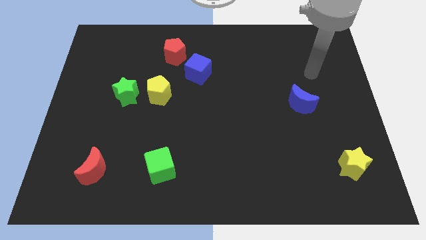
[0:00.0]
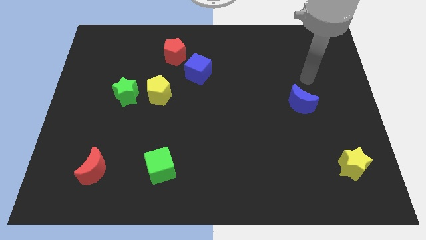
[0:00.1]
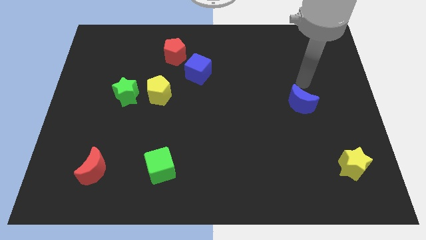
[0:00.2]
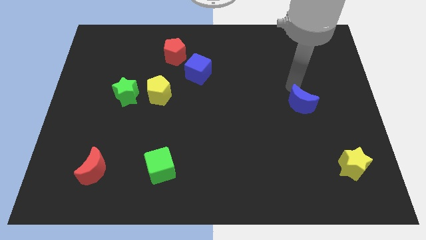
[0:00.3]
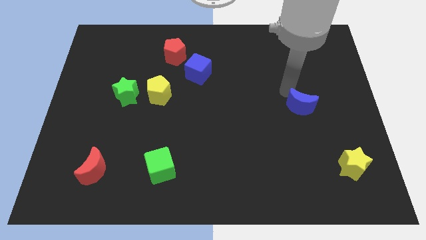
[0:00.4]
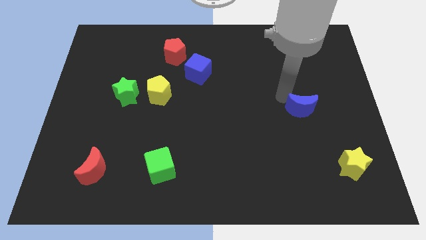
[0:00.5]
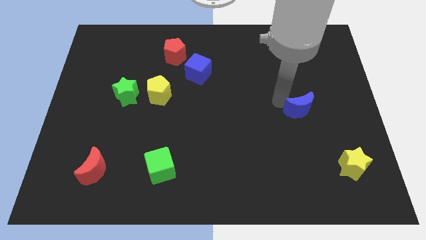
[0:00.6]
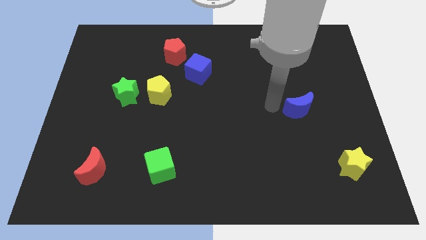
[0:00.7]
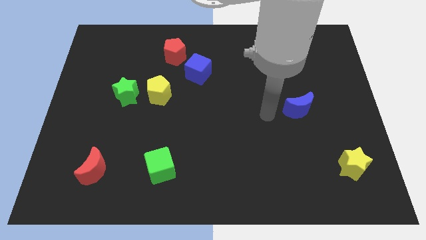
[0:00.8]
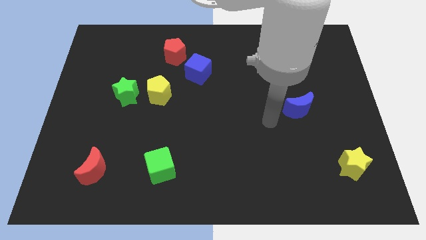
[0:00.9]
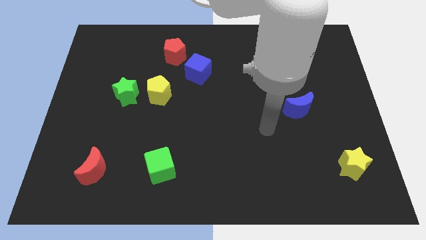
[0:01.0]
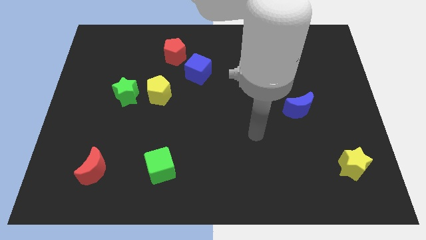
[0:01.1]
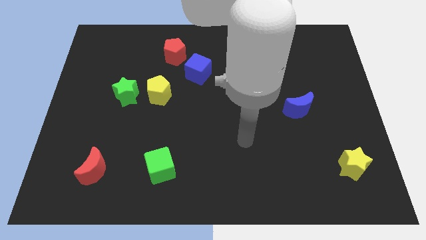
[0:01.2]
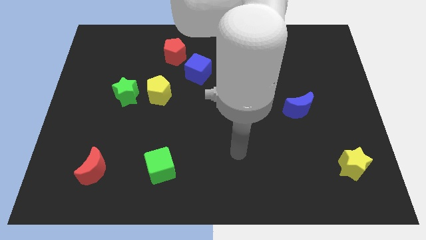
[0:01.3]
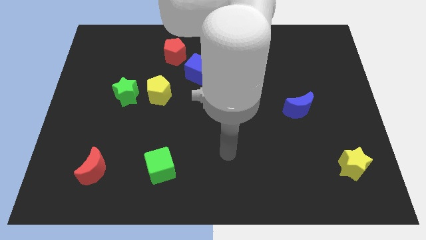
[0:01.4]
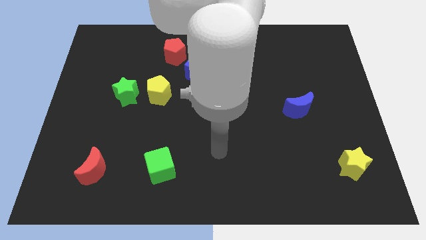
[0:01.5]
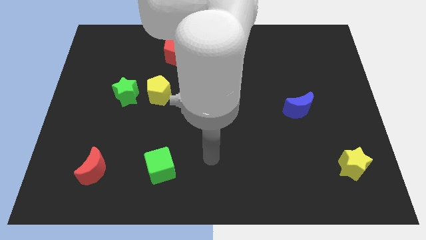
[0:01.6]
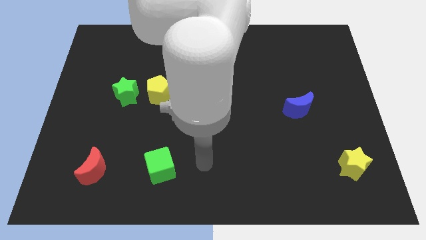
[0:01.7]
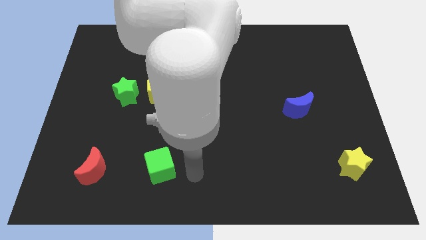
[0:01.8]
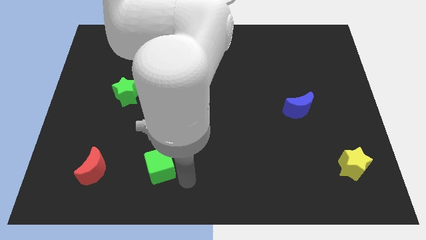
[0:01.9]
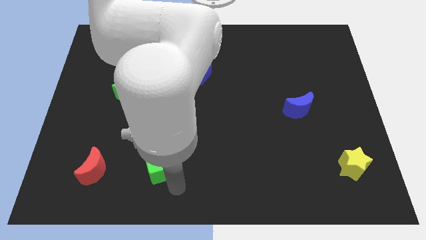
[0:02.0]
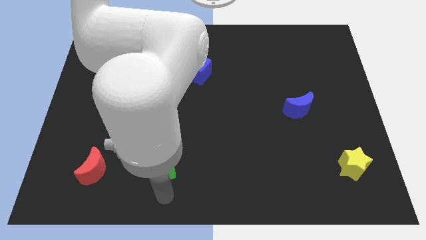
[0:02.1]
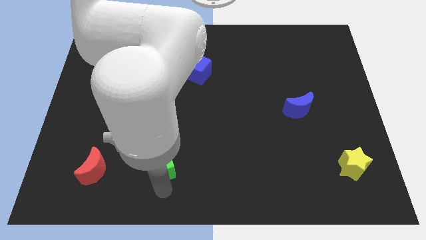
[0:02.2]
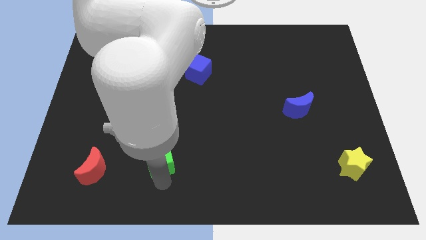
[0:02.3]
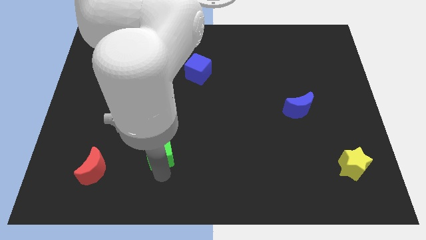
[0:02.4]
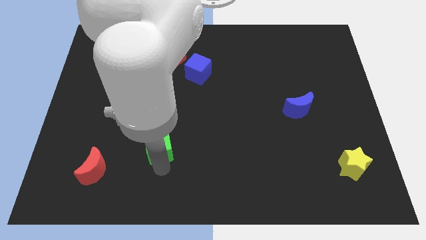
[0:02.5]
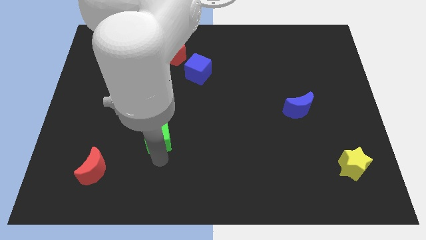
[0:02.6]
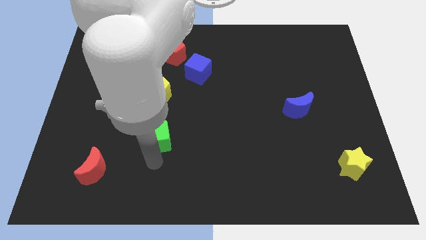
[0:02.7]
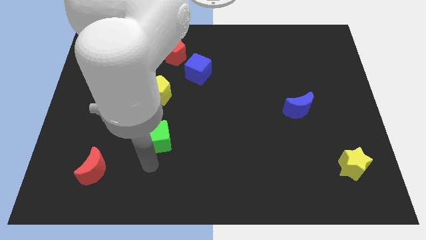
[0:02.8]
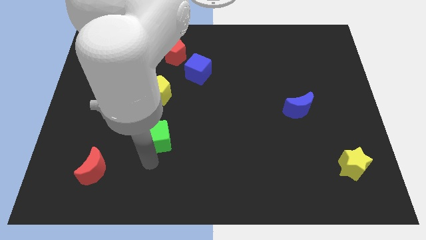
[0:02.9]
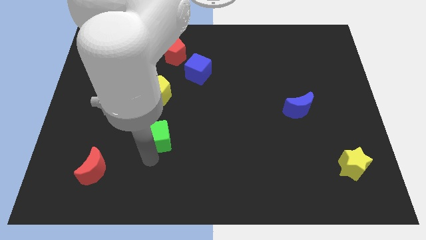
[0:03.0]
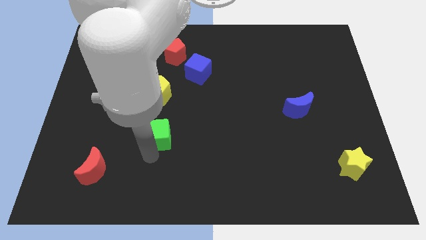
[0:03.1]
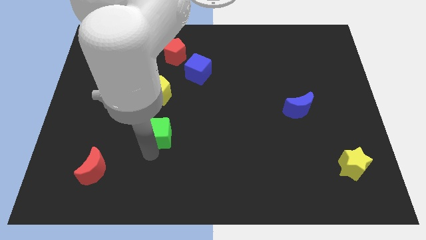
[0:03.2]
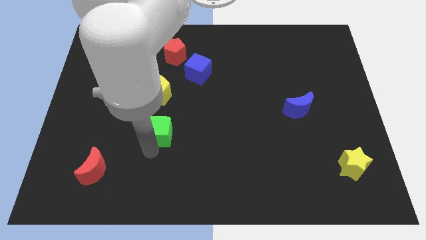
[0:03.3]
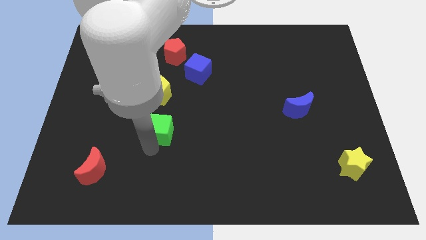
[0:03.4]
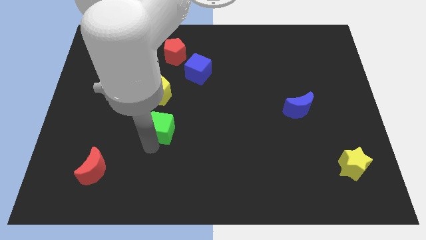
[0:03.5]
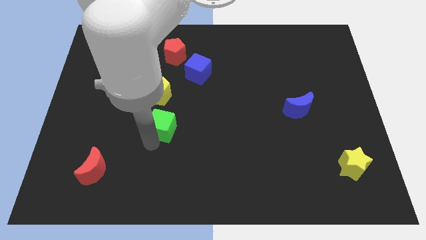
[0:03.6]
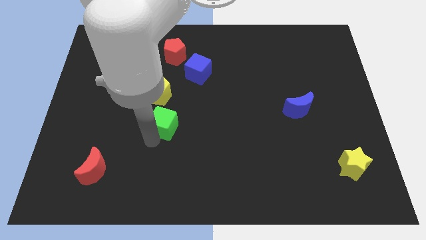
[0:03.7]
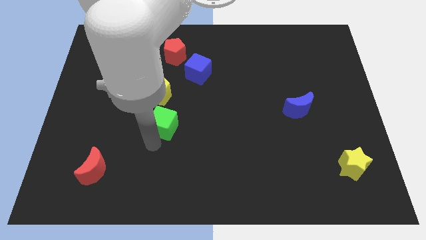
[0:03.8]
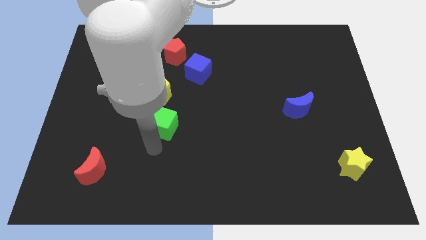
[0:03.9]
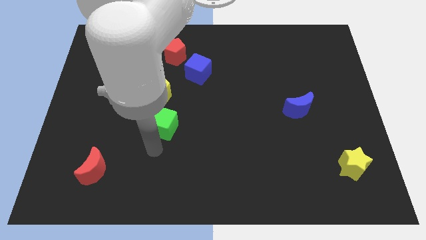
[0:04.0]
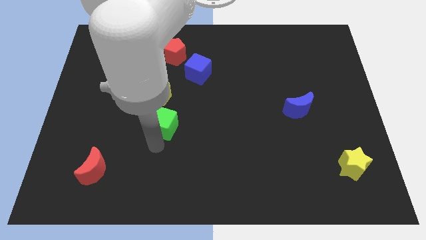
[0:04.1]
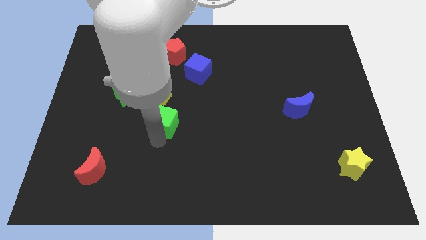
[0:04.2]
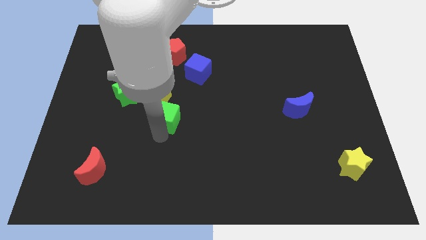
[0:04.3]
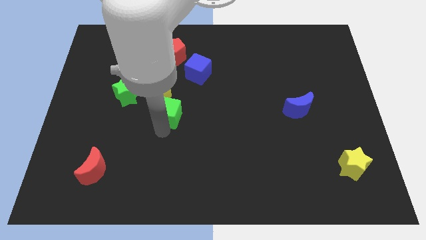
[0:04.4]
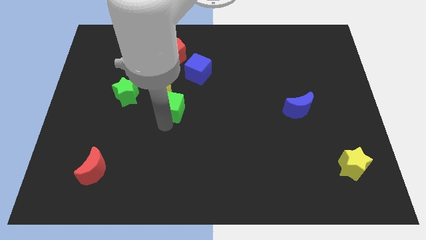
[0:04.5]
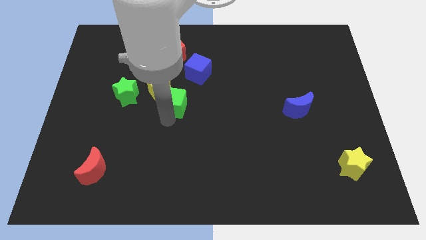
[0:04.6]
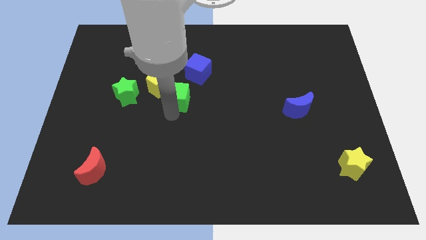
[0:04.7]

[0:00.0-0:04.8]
move the green cube below the red pentagon

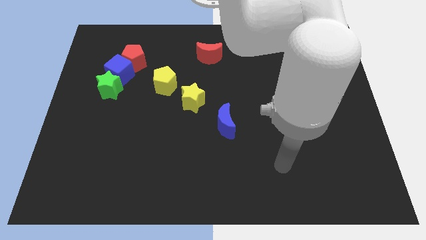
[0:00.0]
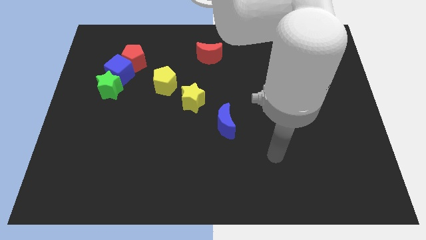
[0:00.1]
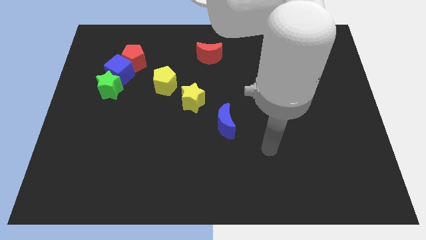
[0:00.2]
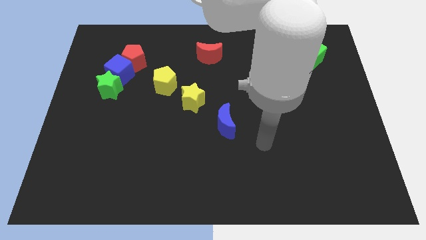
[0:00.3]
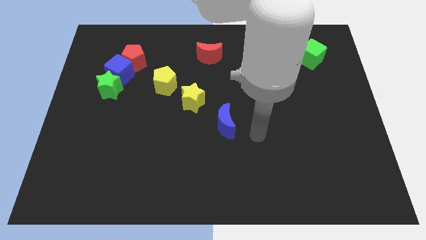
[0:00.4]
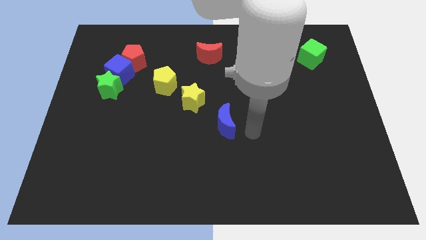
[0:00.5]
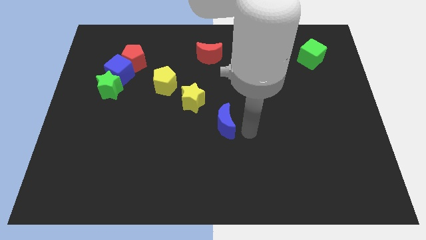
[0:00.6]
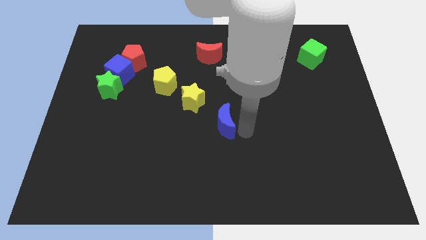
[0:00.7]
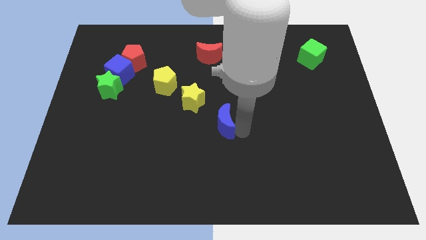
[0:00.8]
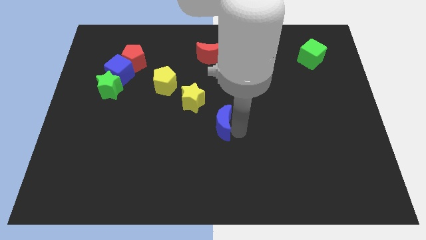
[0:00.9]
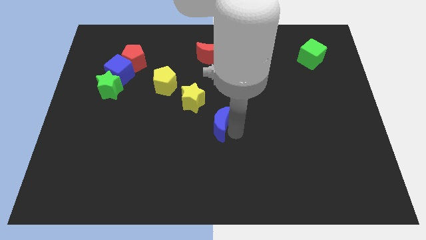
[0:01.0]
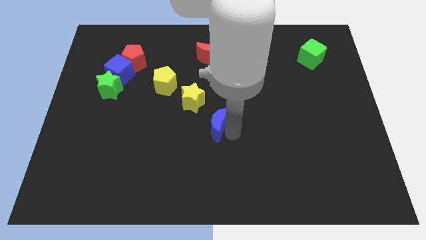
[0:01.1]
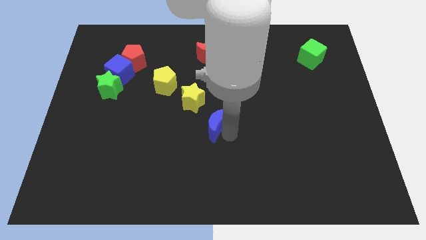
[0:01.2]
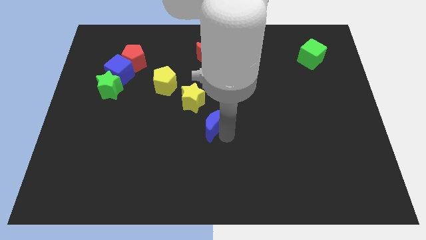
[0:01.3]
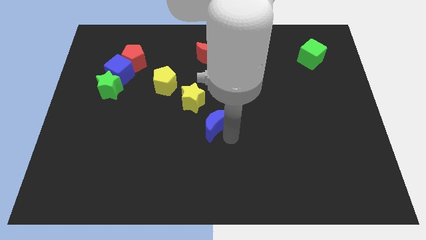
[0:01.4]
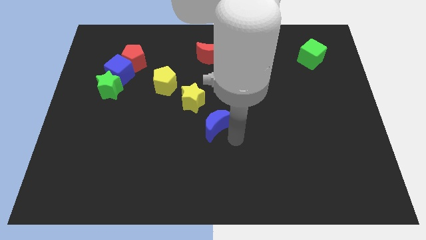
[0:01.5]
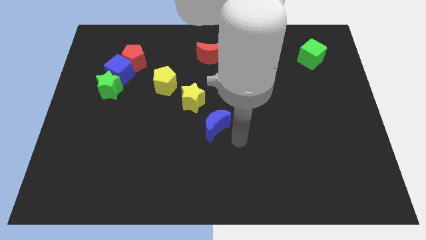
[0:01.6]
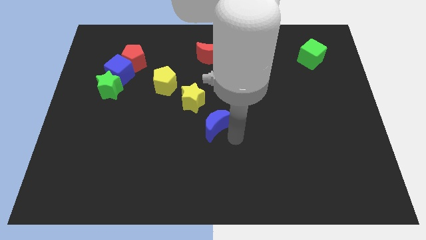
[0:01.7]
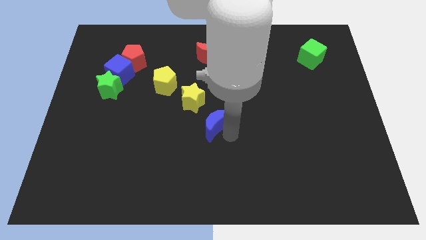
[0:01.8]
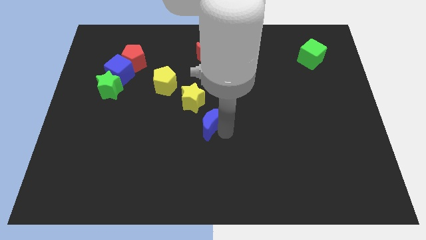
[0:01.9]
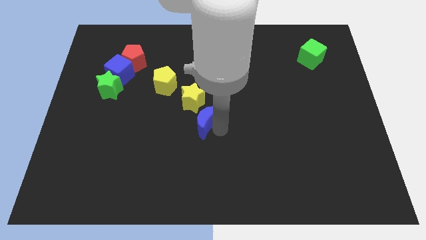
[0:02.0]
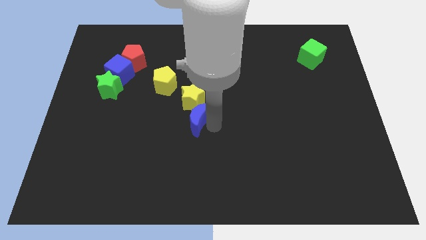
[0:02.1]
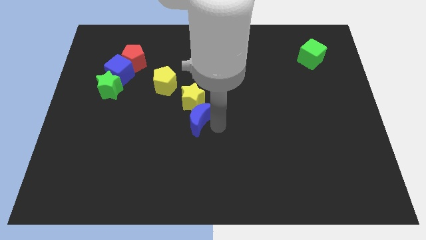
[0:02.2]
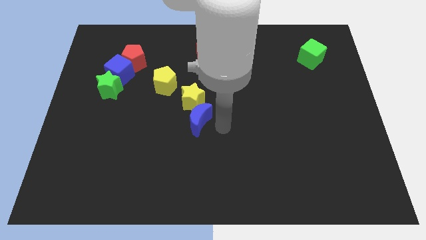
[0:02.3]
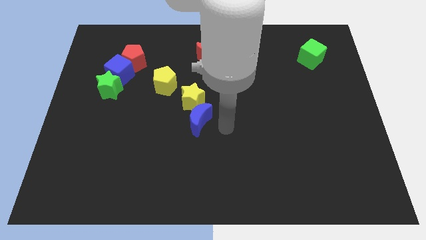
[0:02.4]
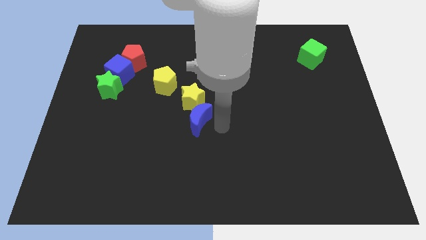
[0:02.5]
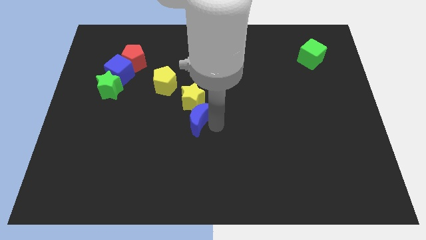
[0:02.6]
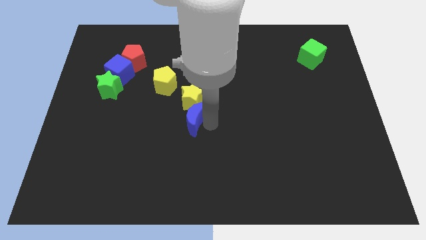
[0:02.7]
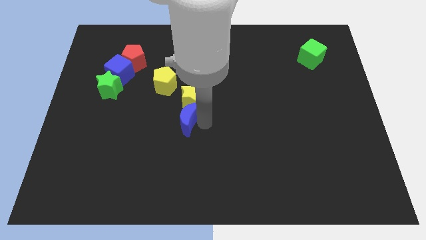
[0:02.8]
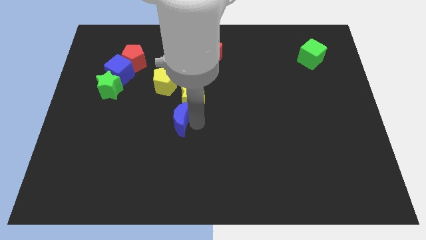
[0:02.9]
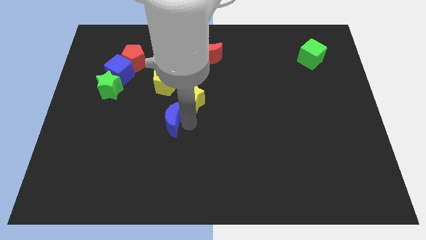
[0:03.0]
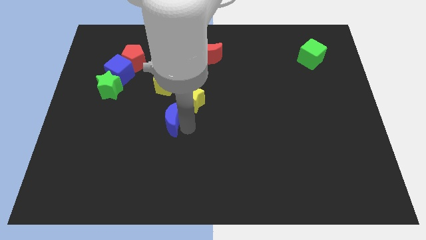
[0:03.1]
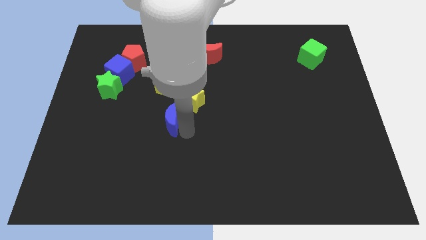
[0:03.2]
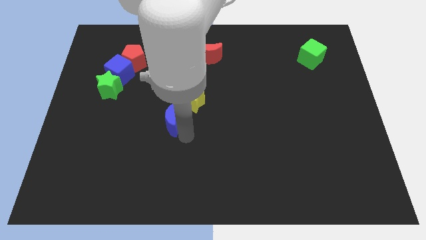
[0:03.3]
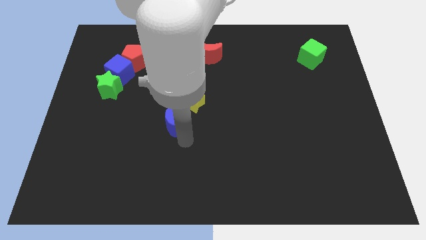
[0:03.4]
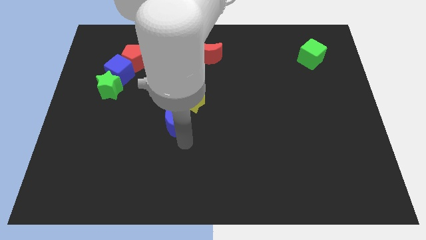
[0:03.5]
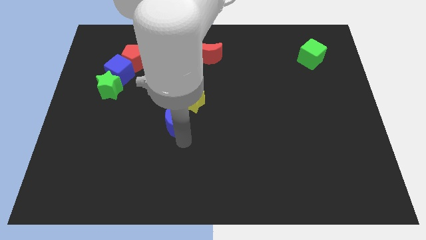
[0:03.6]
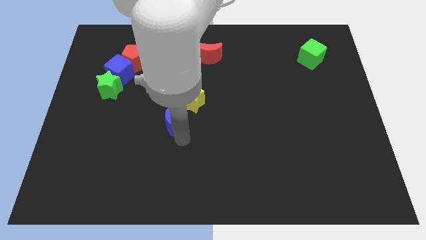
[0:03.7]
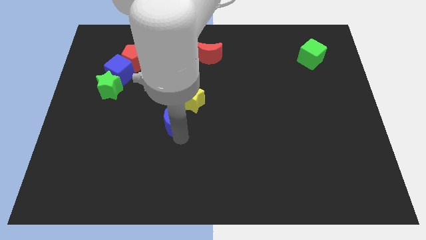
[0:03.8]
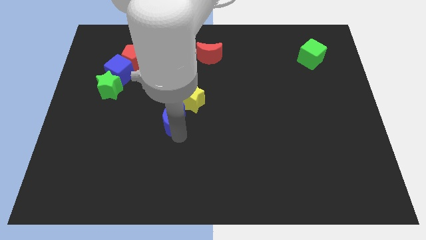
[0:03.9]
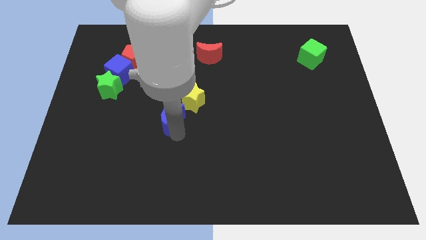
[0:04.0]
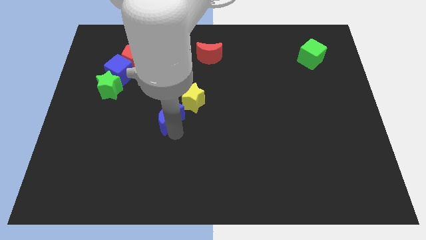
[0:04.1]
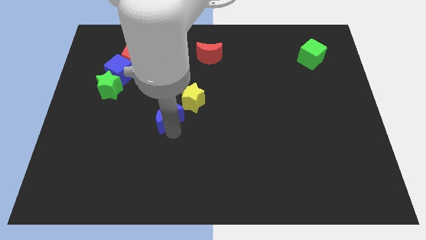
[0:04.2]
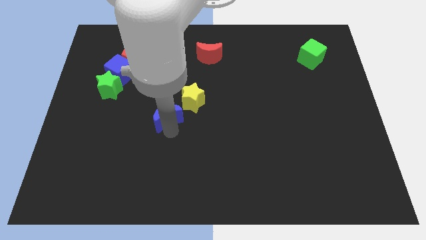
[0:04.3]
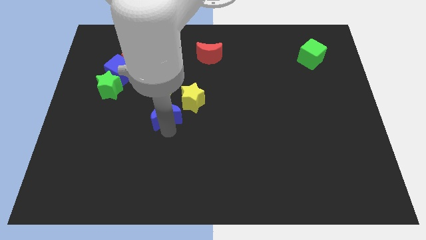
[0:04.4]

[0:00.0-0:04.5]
put the blue moon just left of the yellow star
